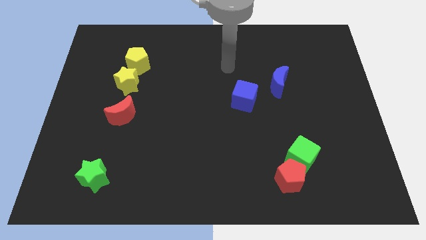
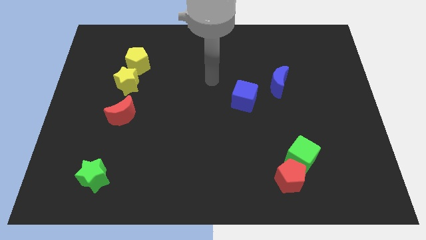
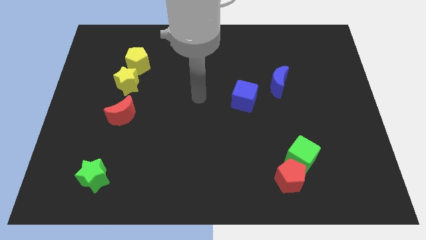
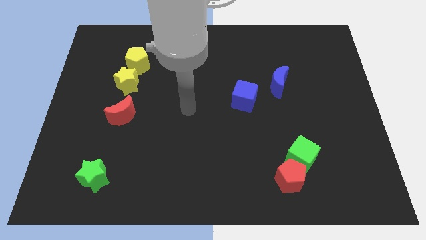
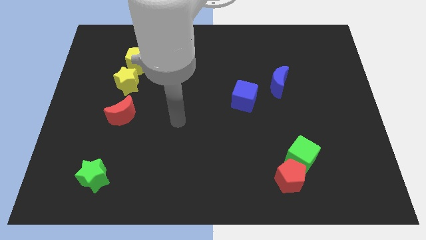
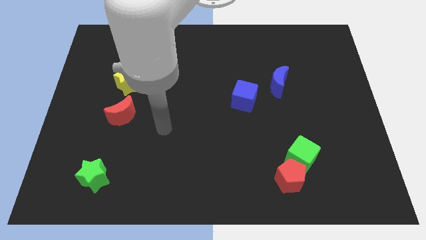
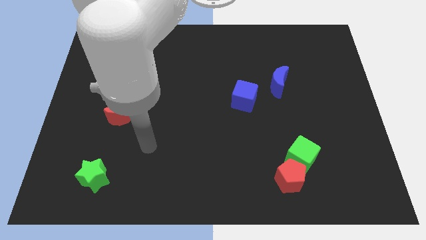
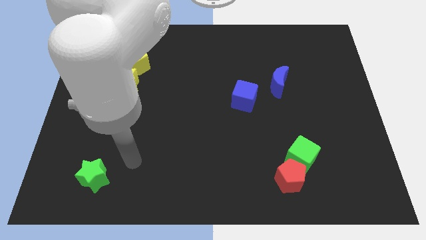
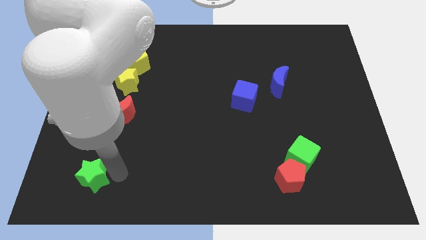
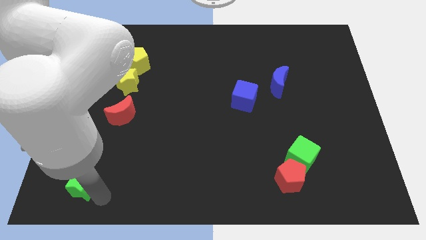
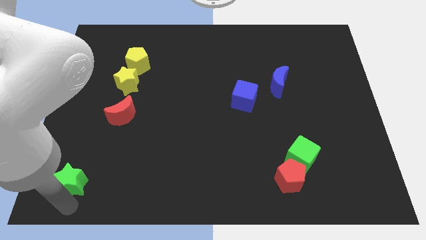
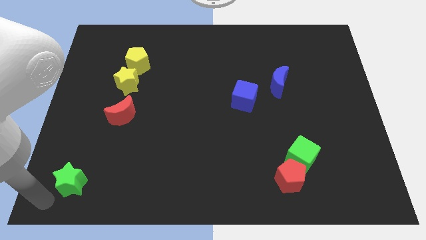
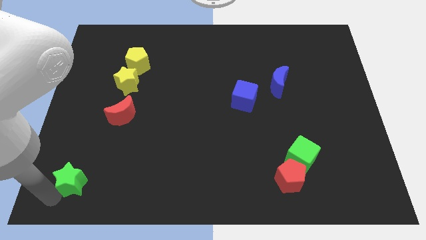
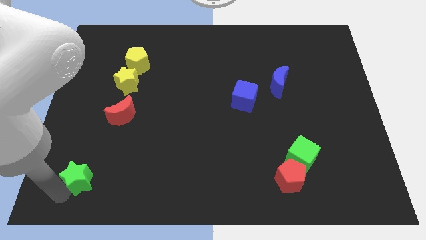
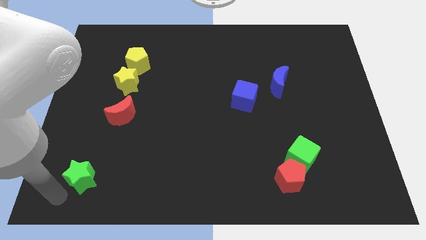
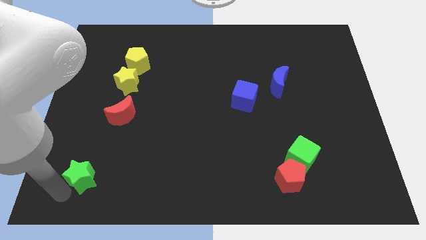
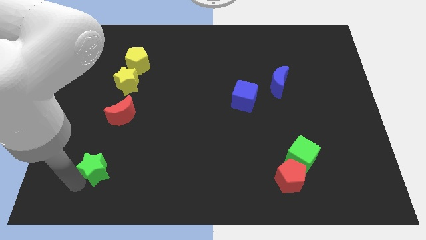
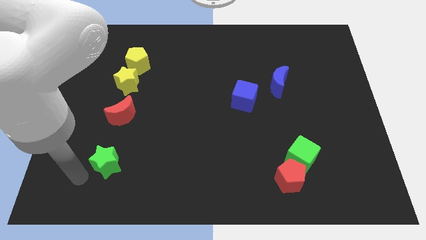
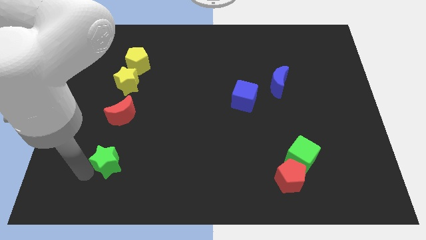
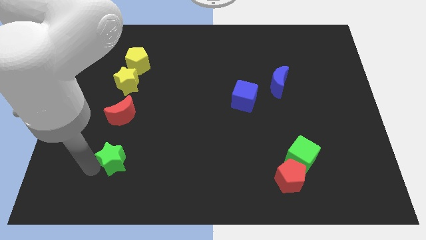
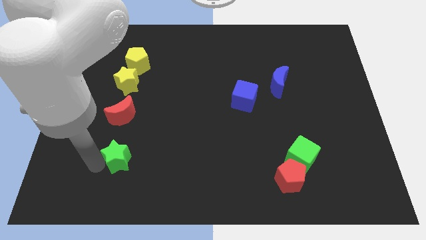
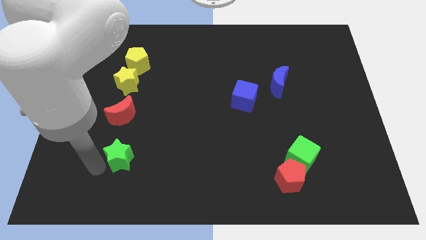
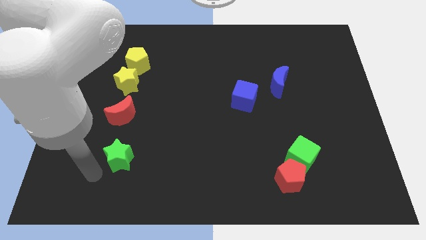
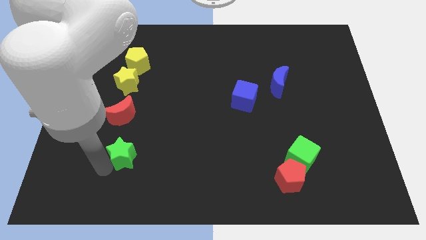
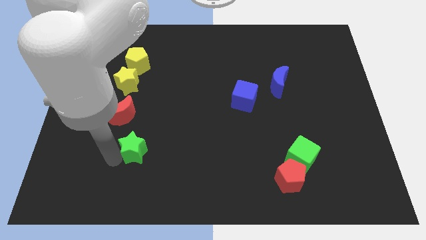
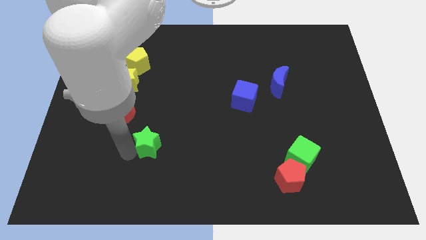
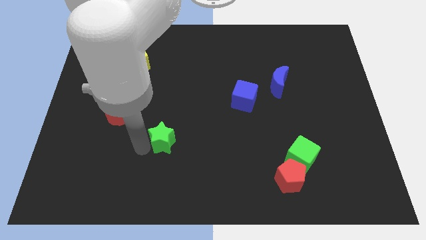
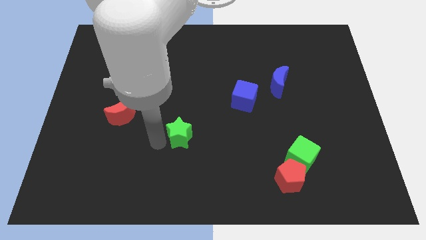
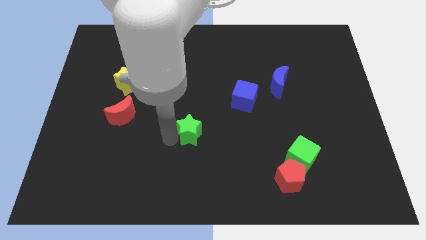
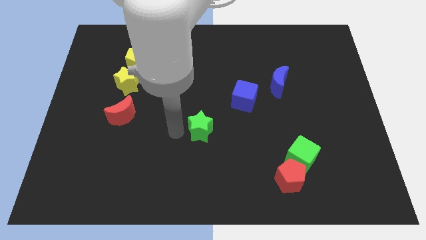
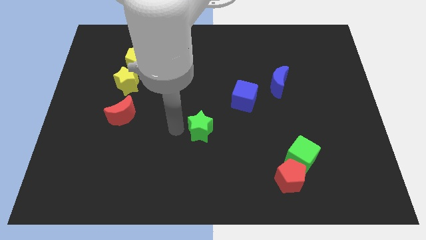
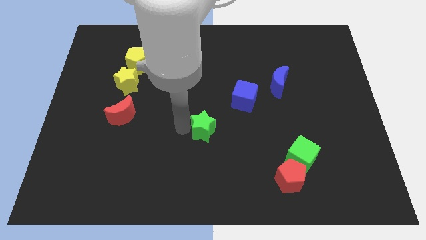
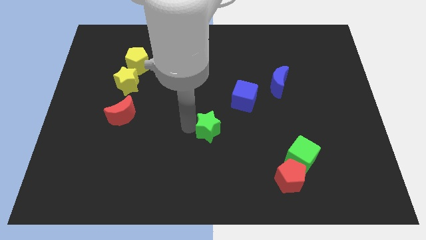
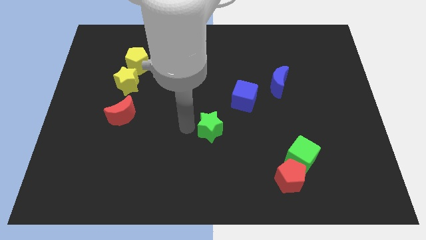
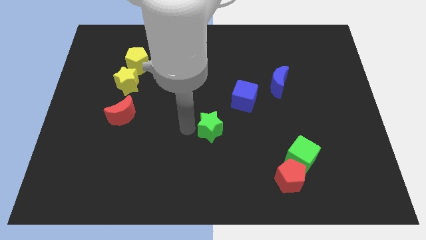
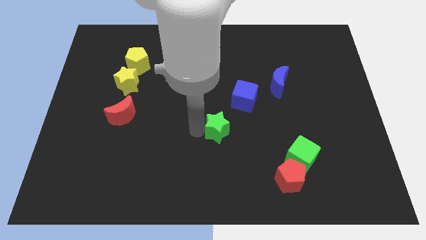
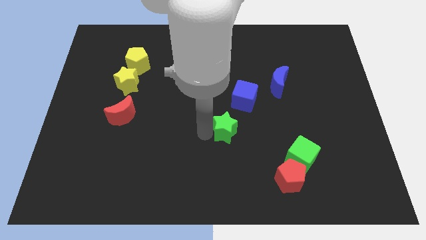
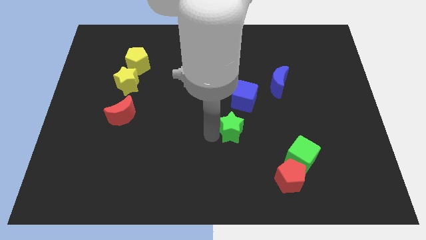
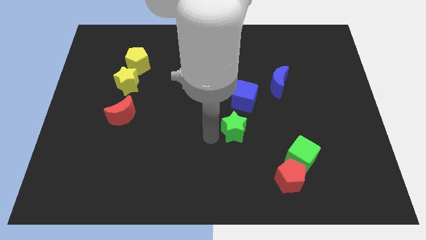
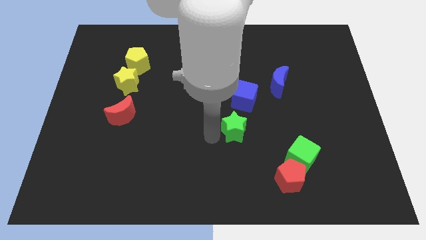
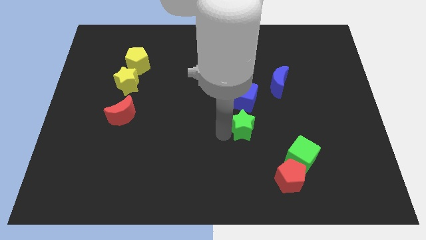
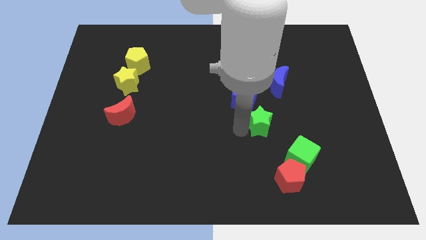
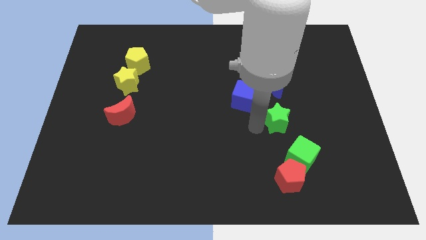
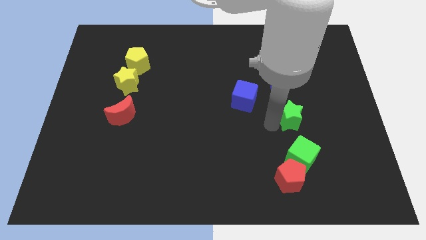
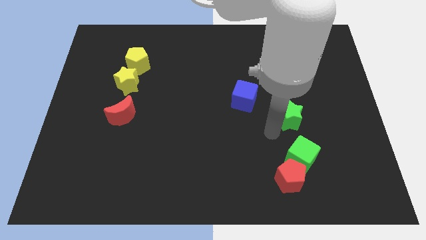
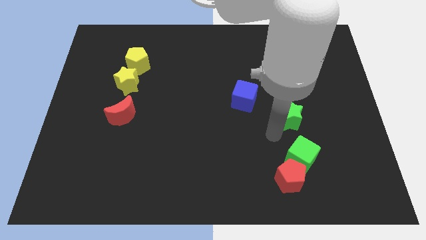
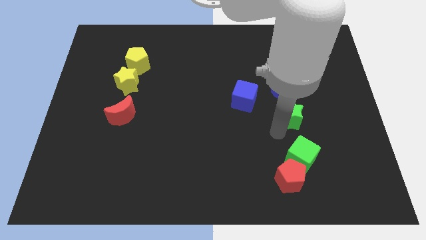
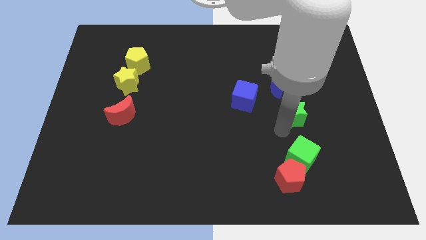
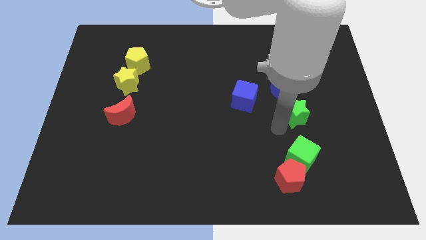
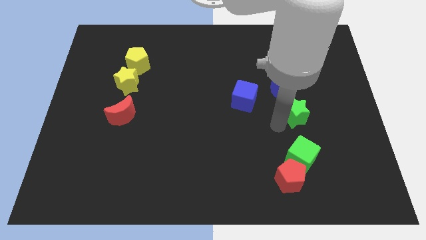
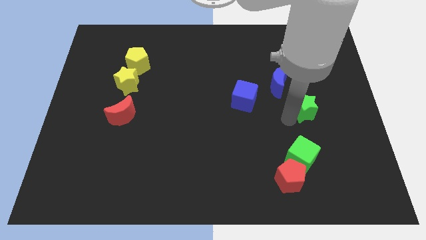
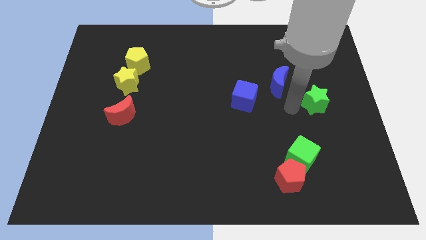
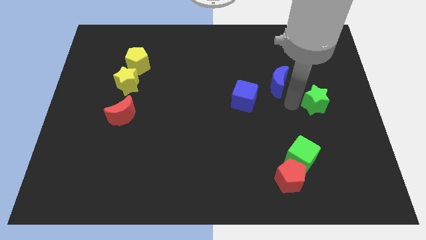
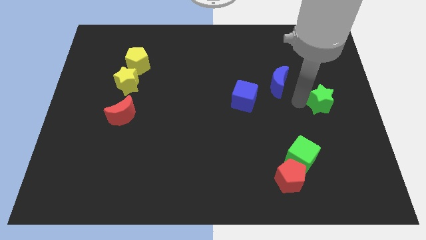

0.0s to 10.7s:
push the green star to the right side

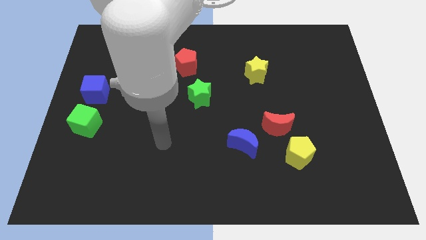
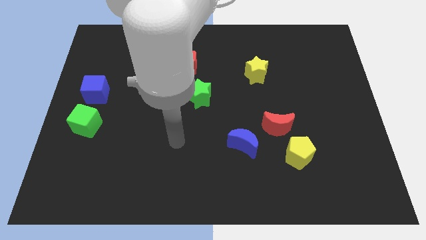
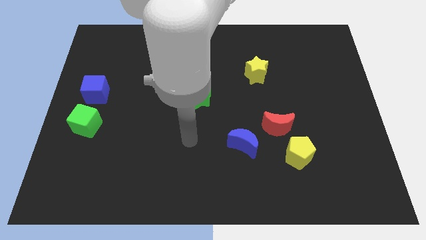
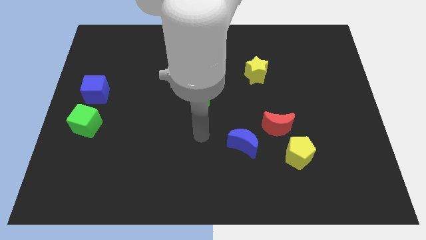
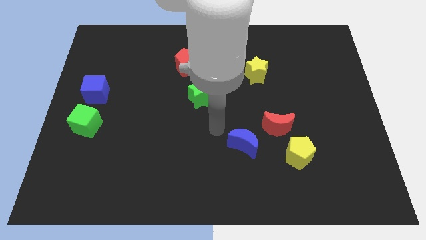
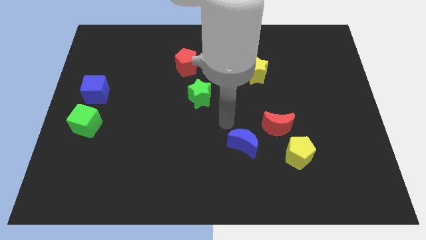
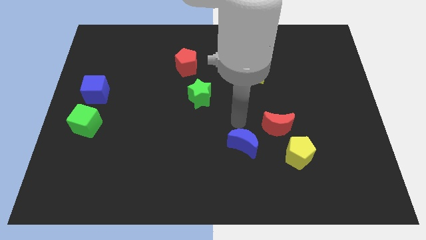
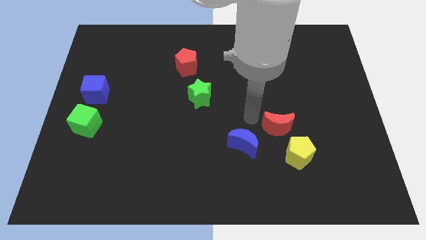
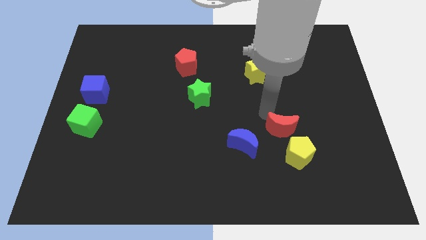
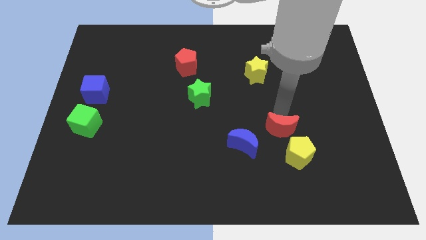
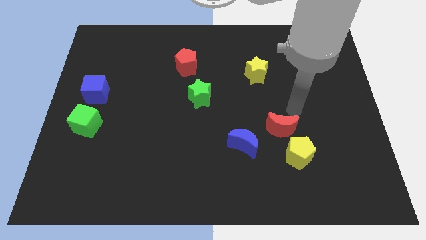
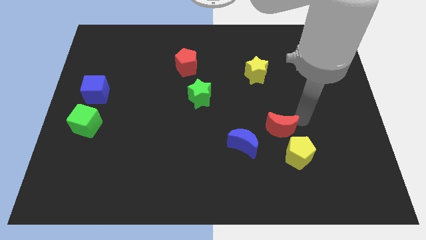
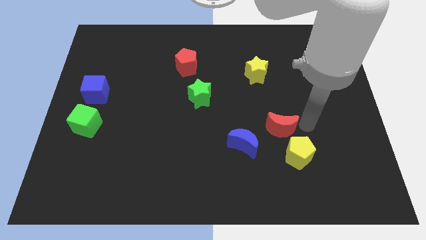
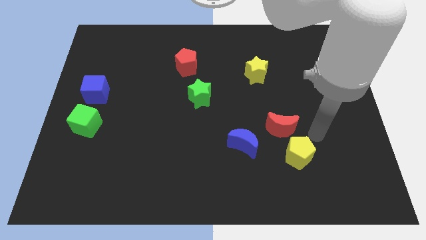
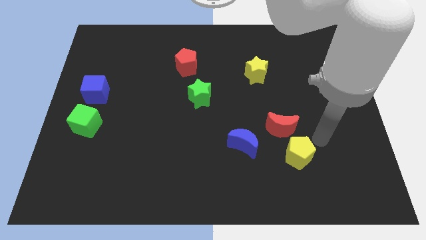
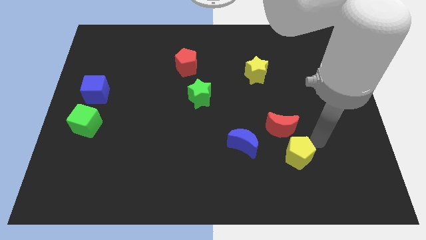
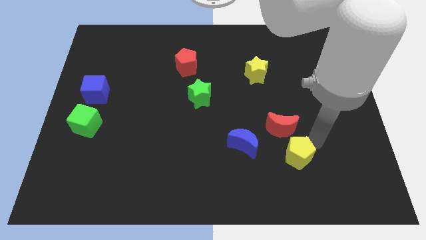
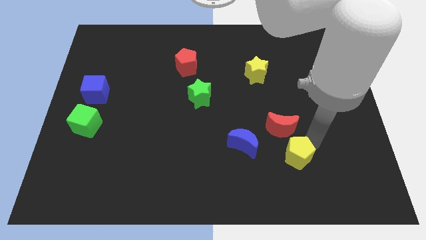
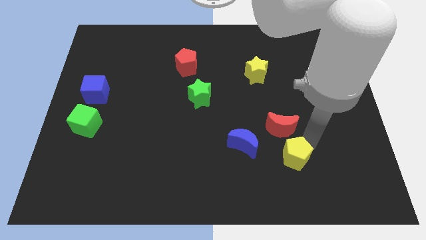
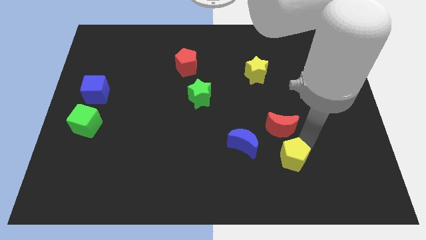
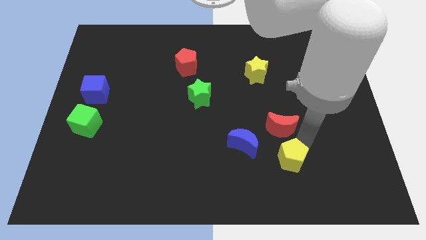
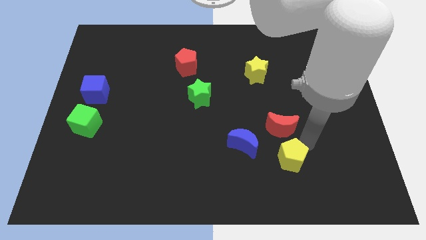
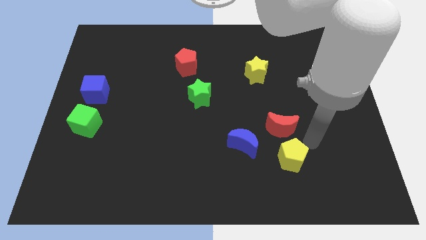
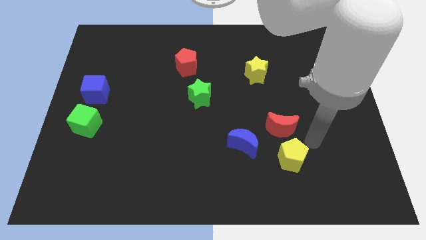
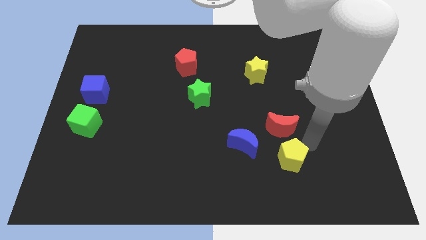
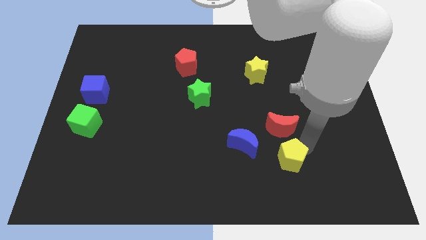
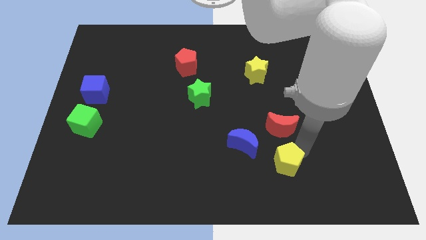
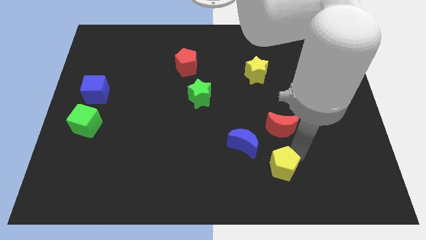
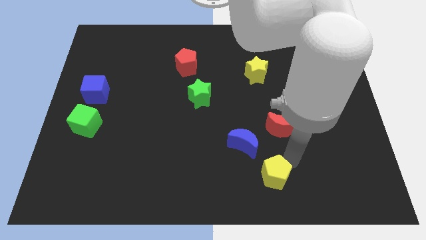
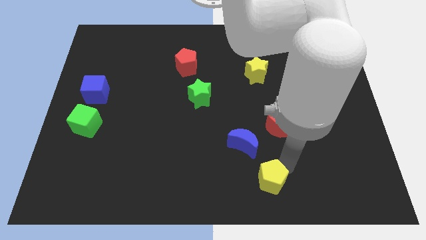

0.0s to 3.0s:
put the yellow pentagon to the bottom
